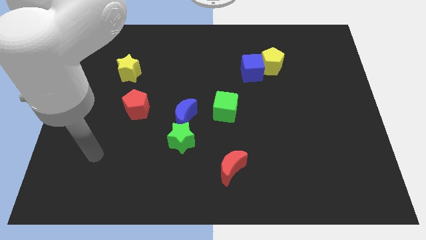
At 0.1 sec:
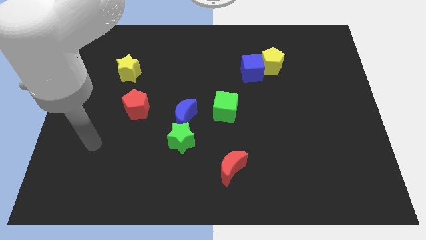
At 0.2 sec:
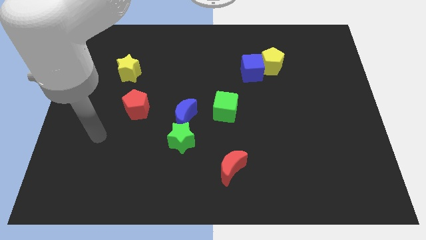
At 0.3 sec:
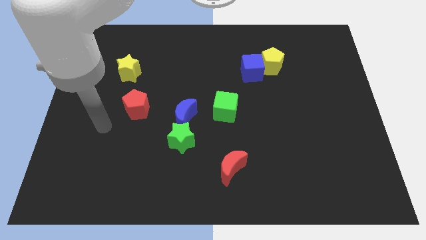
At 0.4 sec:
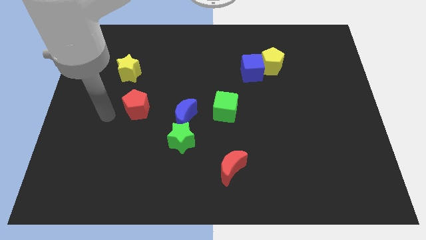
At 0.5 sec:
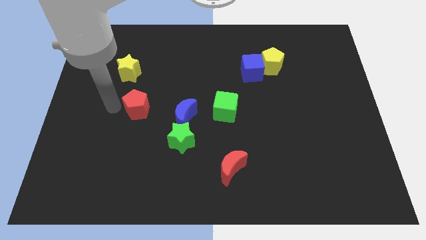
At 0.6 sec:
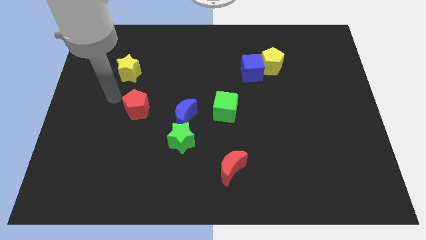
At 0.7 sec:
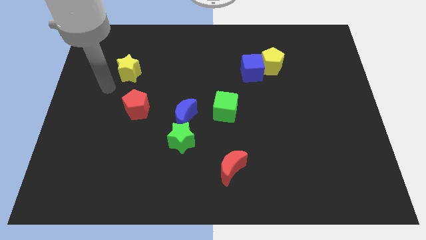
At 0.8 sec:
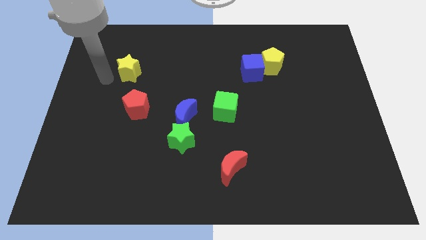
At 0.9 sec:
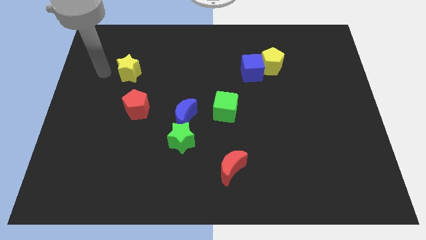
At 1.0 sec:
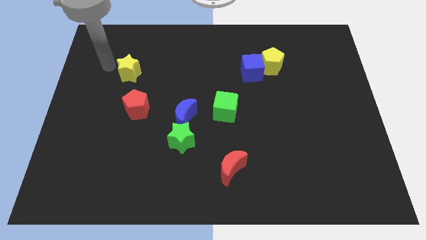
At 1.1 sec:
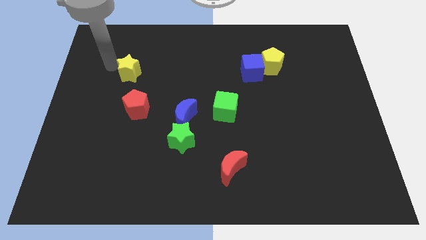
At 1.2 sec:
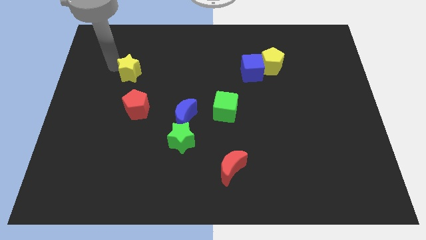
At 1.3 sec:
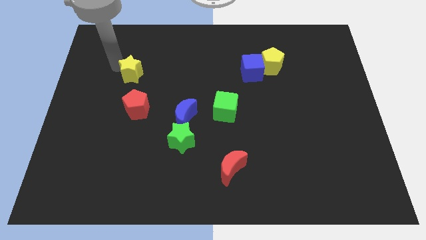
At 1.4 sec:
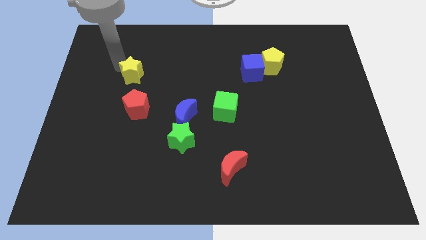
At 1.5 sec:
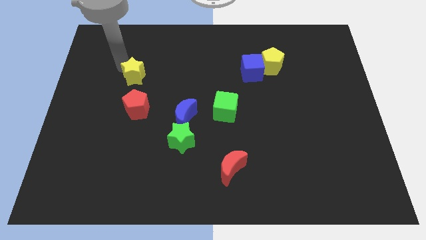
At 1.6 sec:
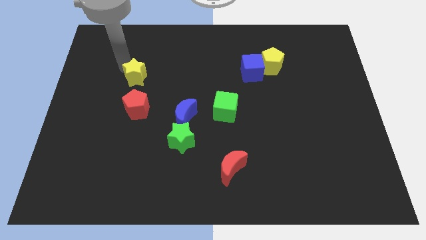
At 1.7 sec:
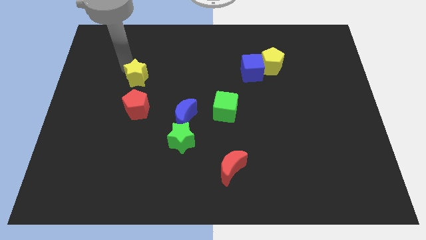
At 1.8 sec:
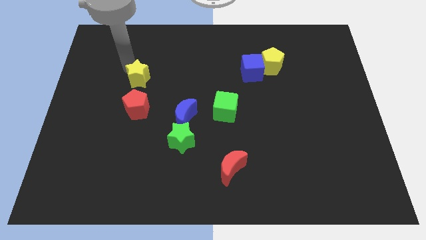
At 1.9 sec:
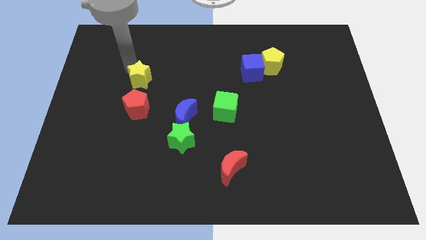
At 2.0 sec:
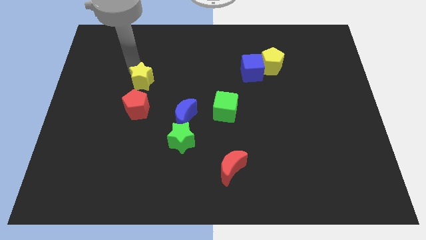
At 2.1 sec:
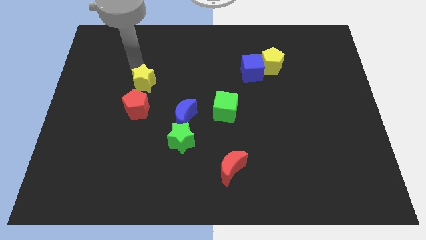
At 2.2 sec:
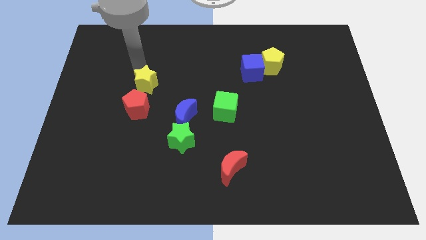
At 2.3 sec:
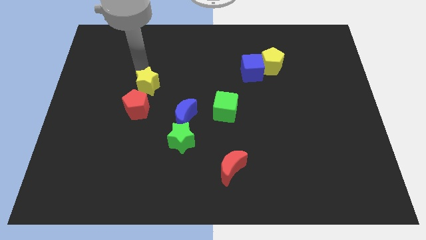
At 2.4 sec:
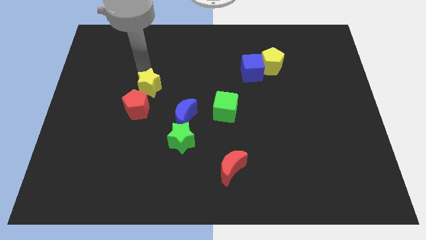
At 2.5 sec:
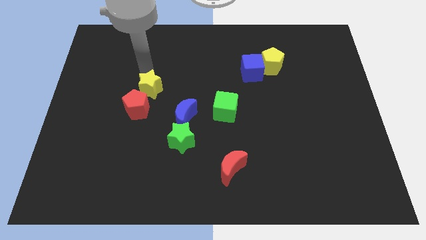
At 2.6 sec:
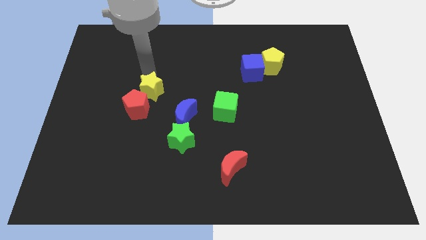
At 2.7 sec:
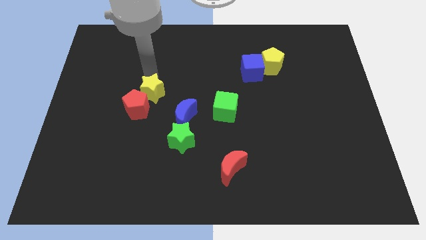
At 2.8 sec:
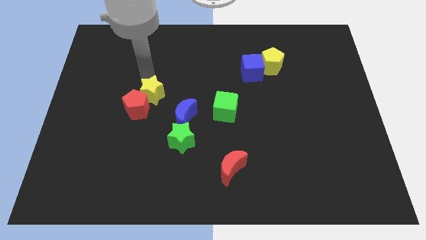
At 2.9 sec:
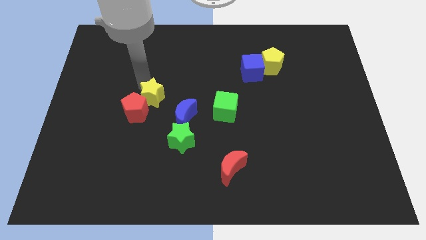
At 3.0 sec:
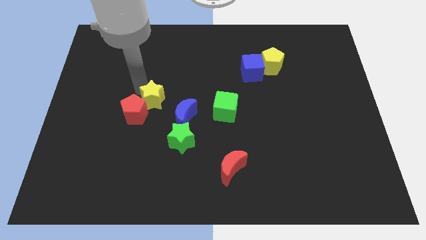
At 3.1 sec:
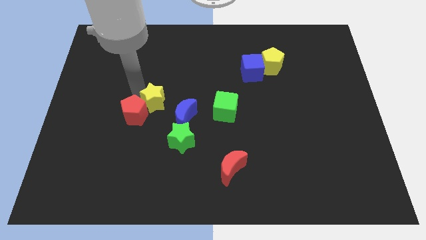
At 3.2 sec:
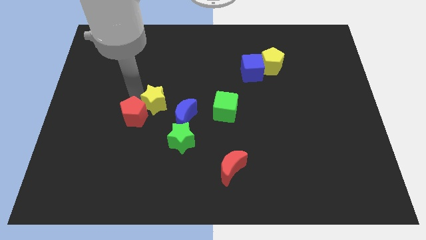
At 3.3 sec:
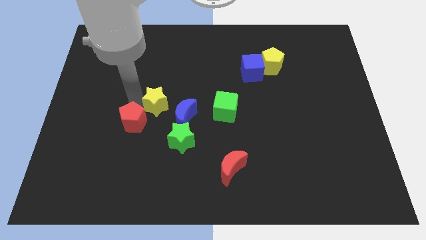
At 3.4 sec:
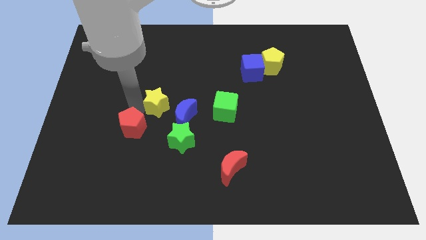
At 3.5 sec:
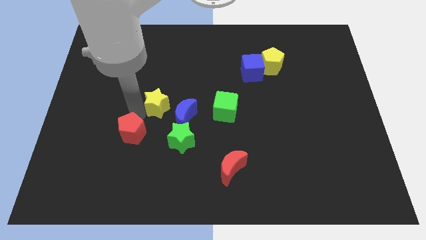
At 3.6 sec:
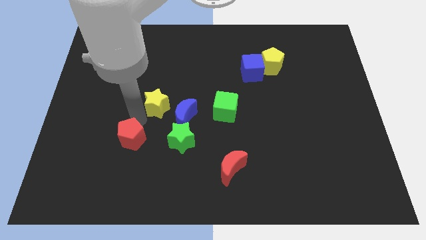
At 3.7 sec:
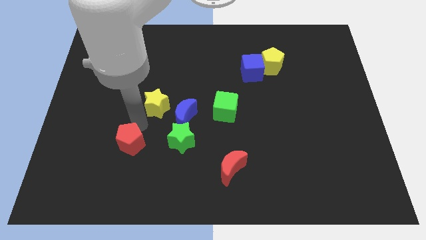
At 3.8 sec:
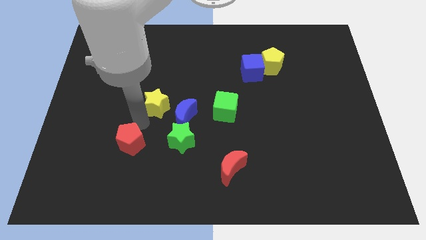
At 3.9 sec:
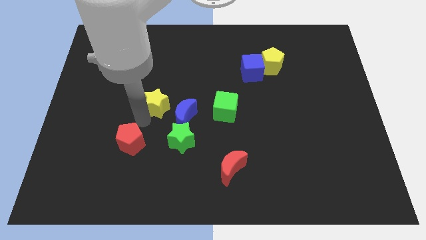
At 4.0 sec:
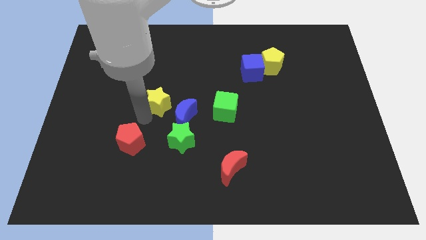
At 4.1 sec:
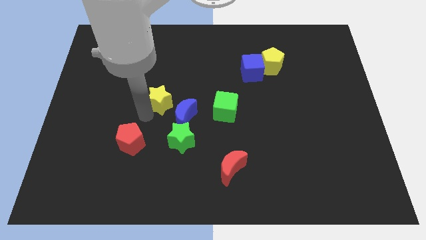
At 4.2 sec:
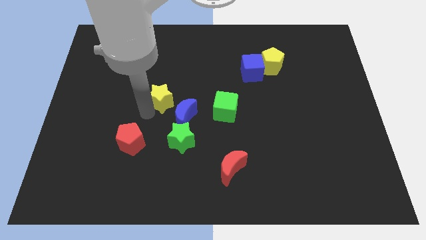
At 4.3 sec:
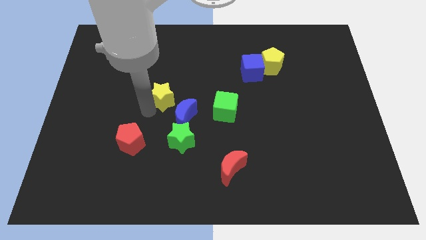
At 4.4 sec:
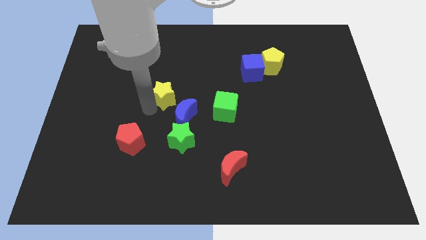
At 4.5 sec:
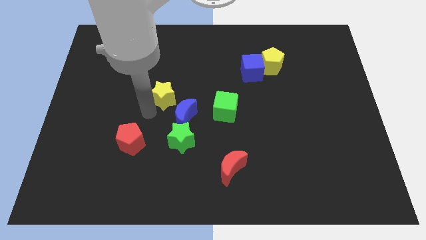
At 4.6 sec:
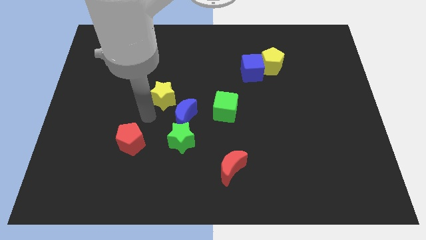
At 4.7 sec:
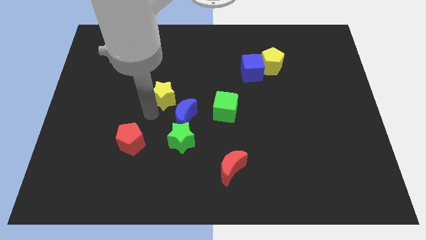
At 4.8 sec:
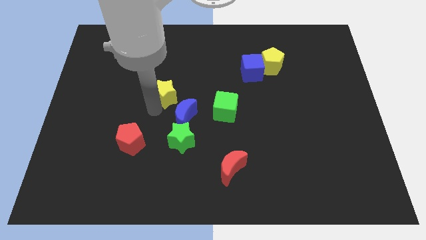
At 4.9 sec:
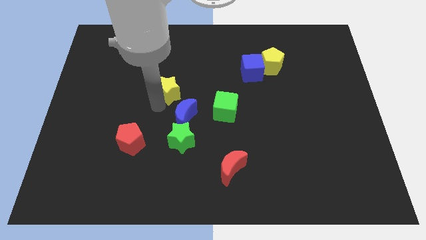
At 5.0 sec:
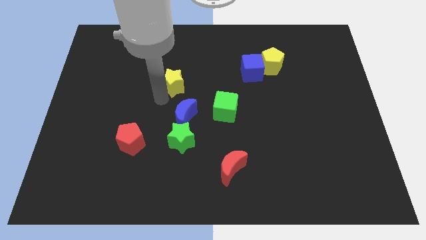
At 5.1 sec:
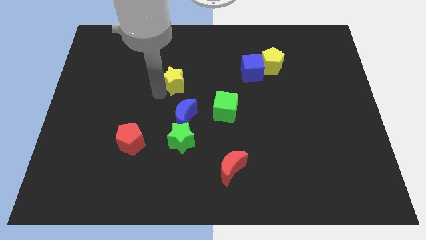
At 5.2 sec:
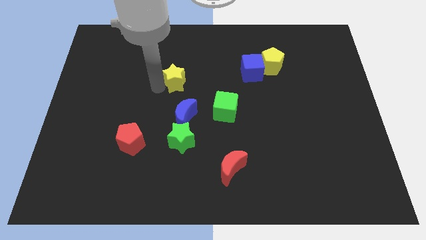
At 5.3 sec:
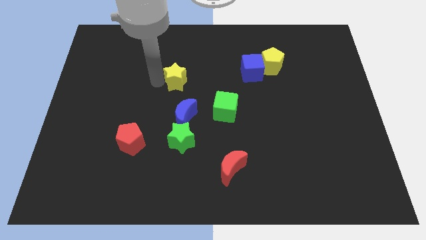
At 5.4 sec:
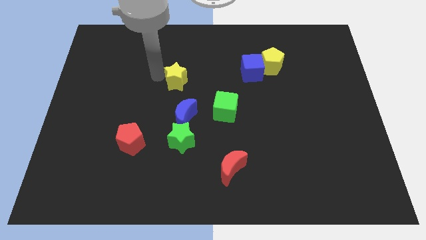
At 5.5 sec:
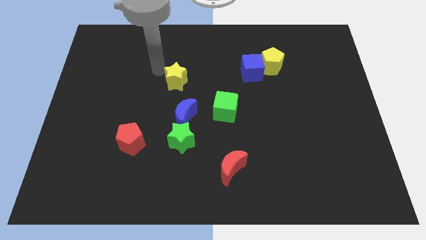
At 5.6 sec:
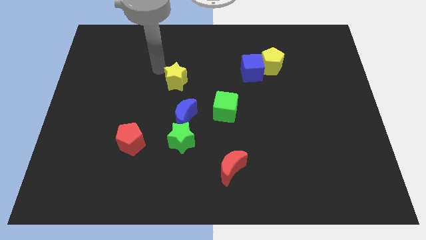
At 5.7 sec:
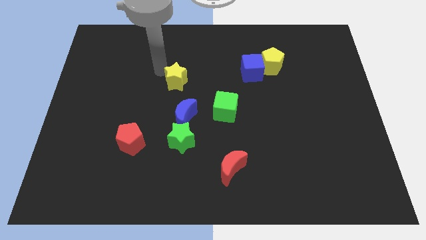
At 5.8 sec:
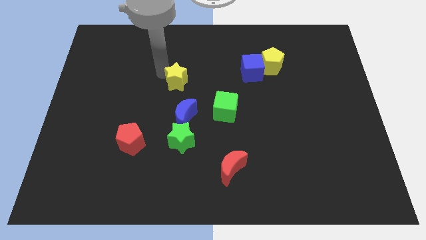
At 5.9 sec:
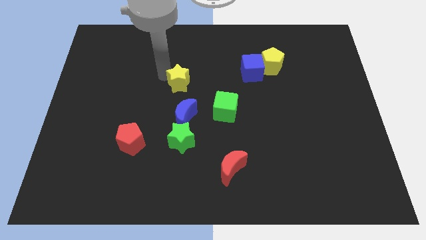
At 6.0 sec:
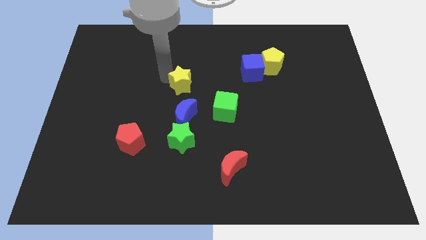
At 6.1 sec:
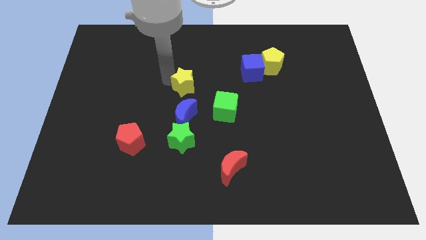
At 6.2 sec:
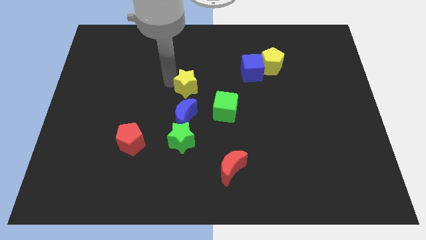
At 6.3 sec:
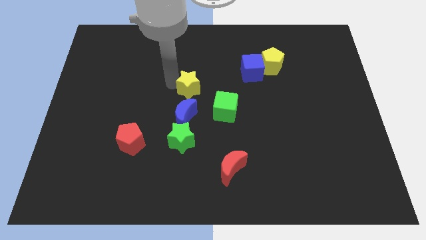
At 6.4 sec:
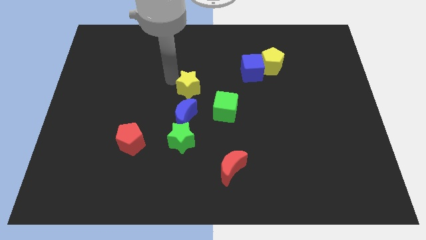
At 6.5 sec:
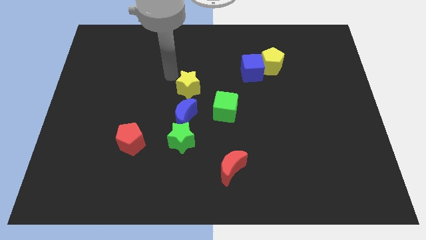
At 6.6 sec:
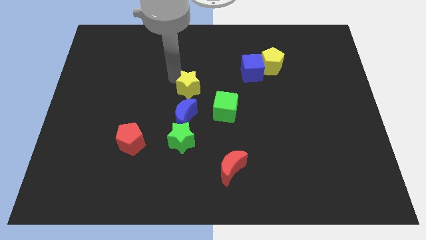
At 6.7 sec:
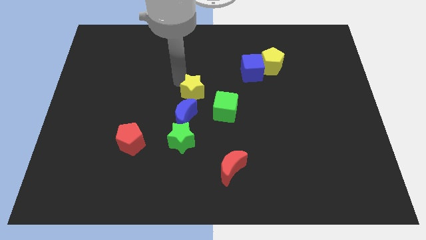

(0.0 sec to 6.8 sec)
put the yellow star to the top right side of the blue moon

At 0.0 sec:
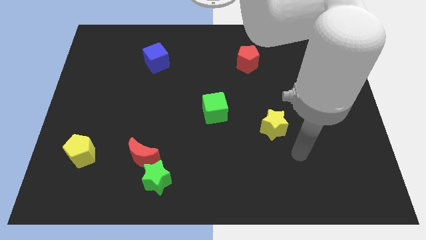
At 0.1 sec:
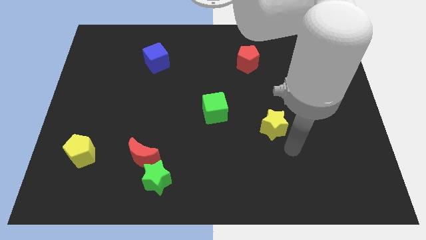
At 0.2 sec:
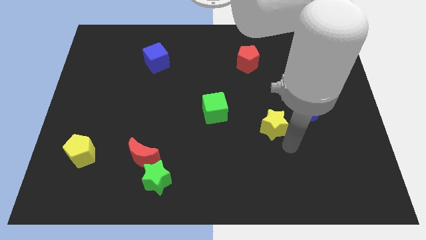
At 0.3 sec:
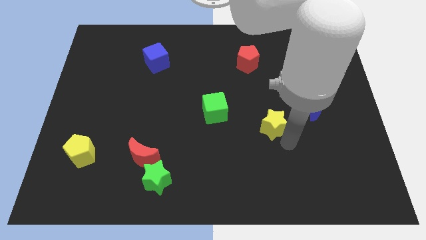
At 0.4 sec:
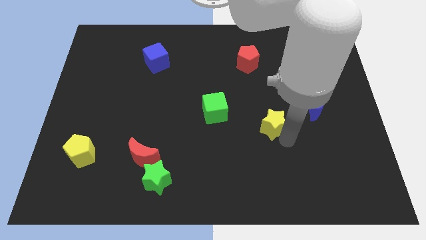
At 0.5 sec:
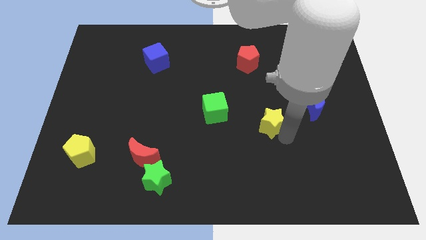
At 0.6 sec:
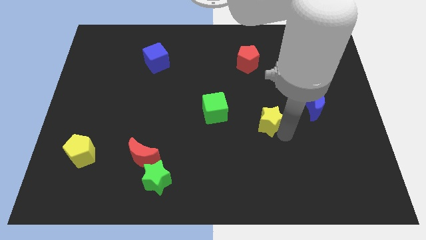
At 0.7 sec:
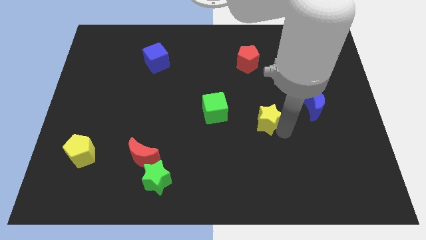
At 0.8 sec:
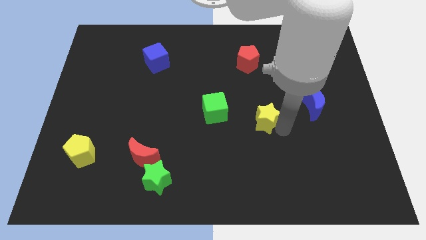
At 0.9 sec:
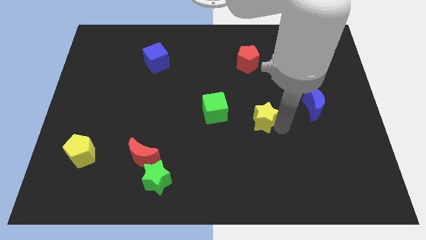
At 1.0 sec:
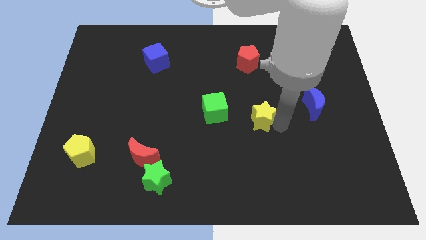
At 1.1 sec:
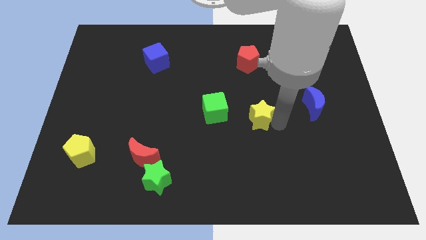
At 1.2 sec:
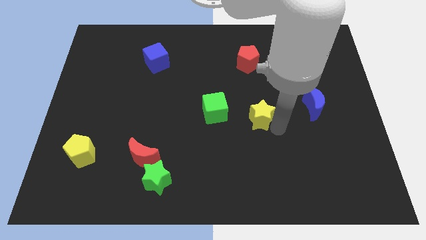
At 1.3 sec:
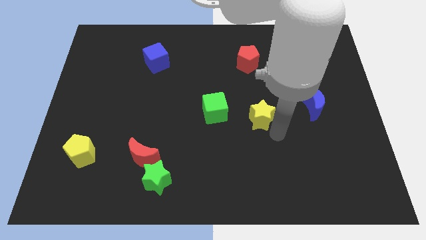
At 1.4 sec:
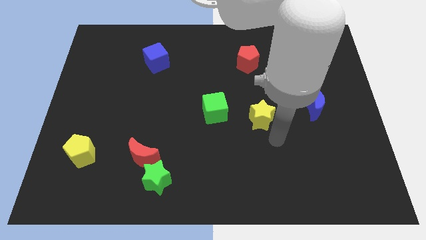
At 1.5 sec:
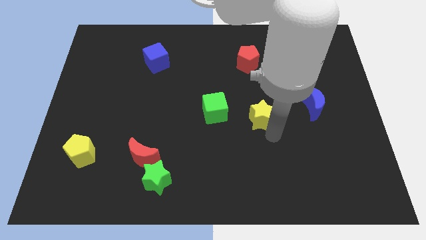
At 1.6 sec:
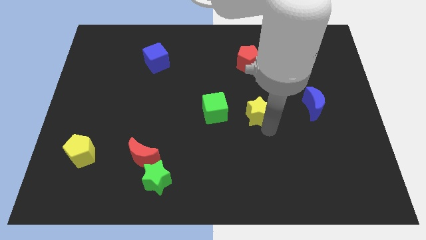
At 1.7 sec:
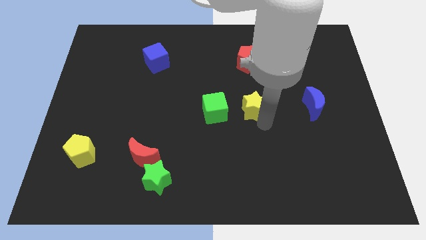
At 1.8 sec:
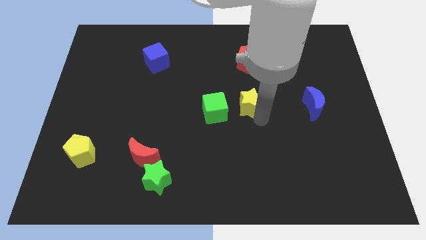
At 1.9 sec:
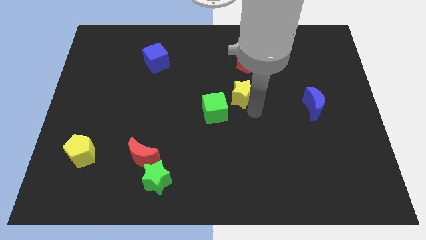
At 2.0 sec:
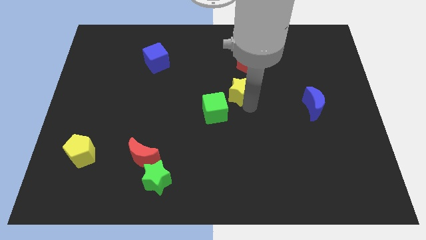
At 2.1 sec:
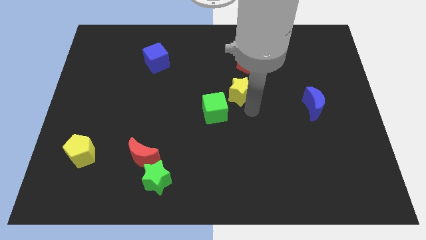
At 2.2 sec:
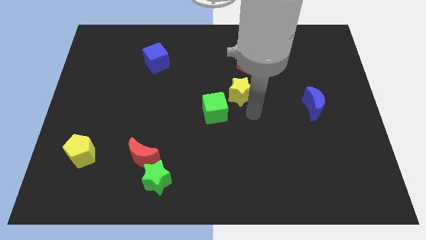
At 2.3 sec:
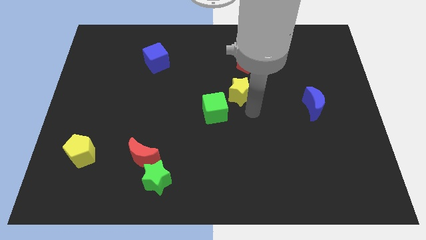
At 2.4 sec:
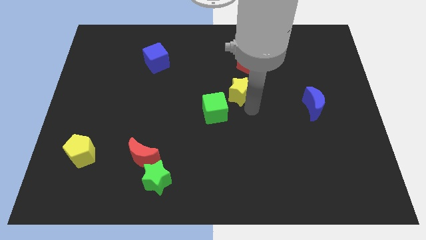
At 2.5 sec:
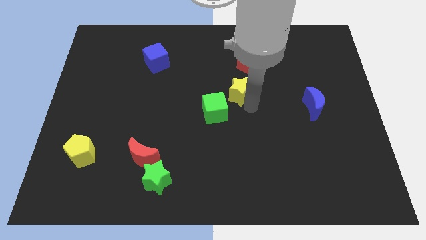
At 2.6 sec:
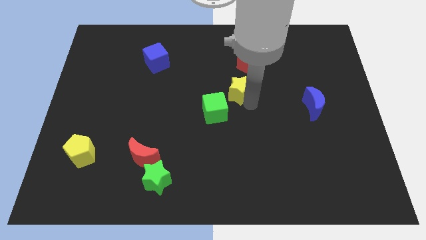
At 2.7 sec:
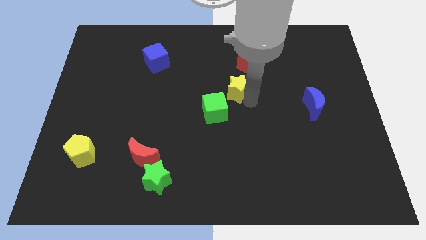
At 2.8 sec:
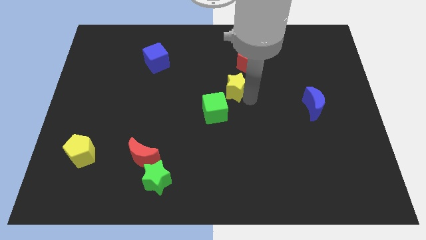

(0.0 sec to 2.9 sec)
slide the yellow star diagonally down and to the left of the red pentagon
